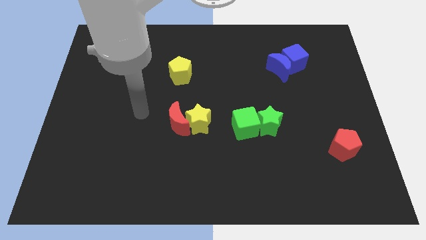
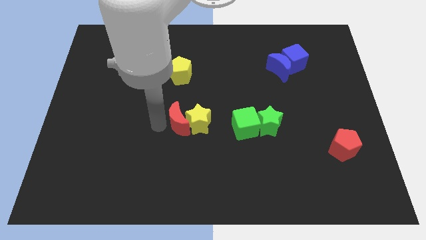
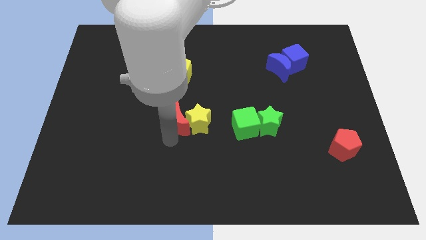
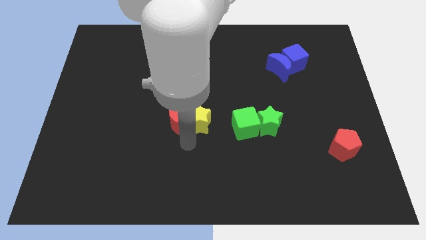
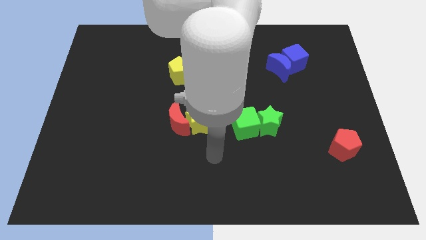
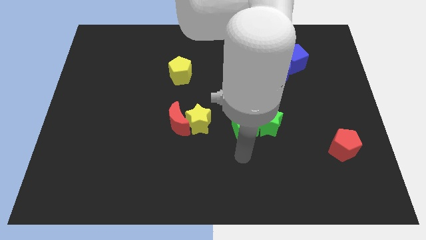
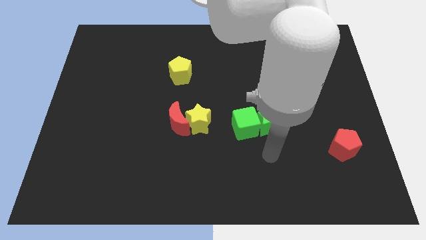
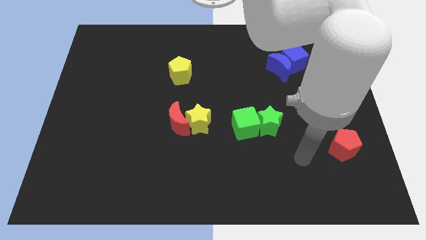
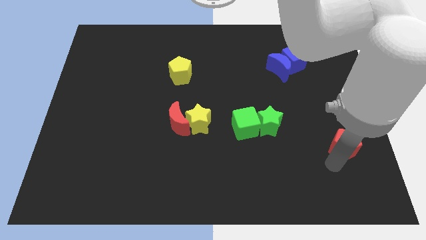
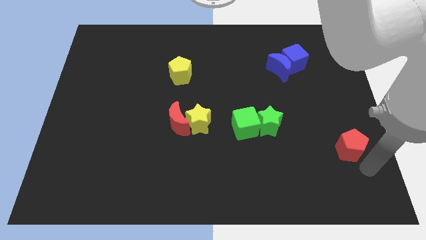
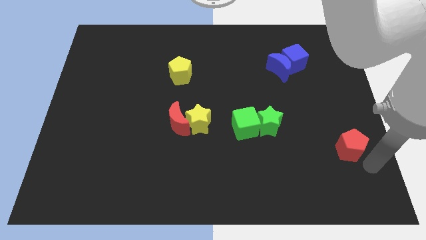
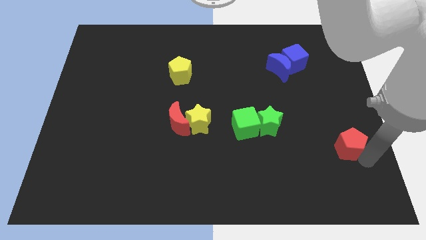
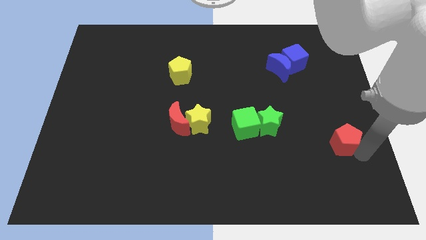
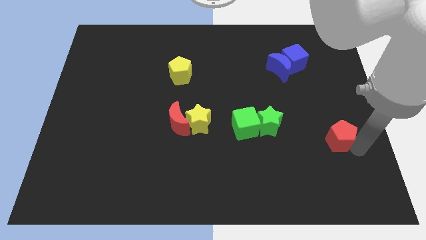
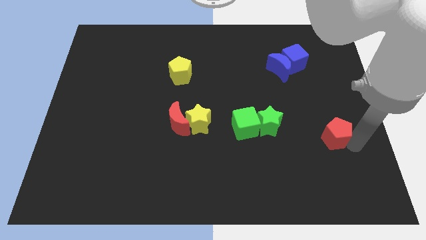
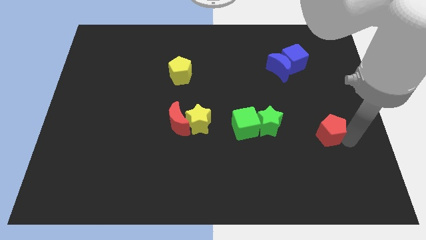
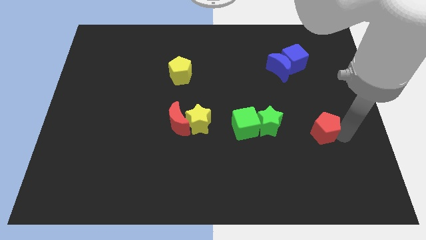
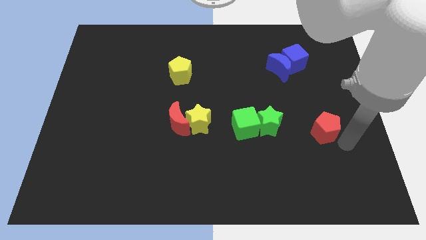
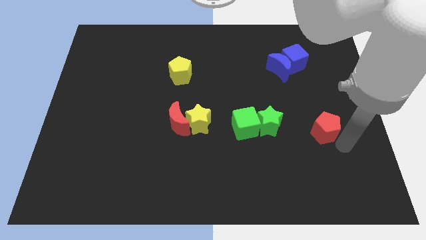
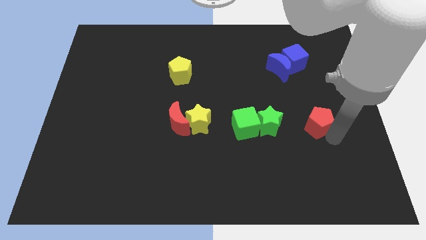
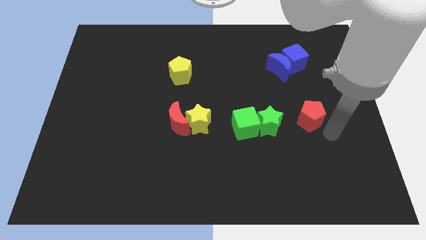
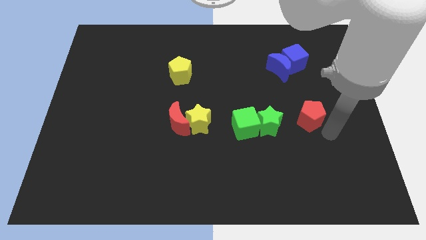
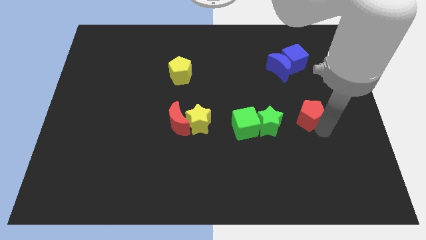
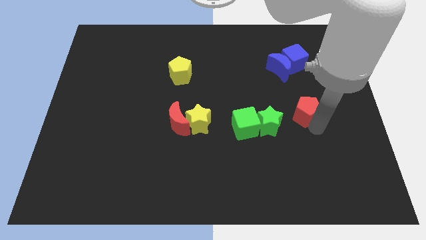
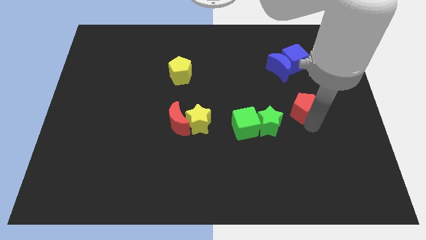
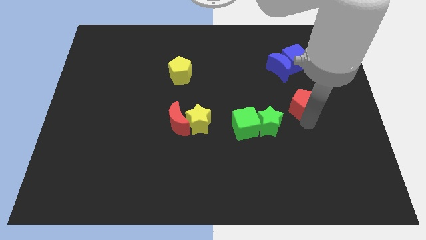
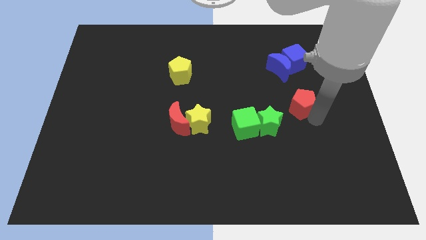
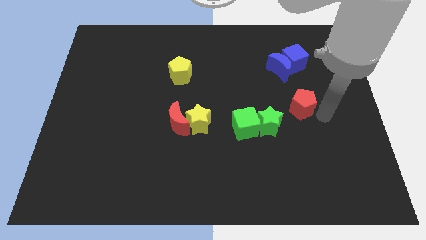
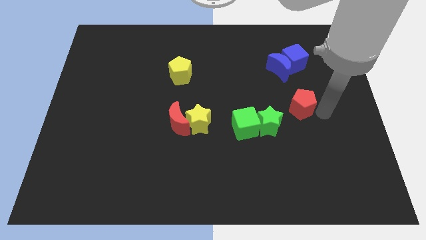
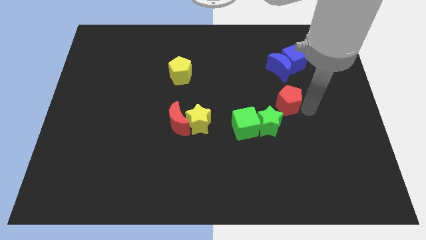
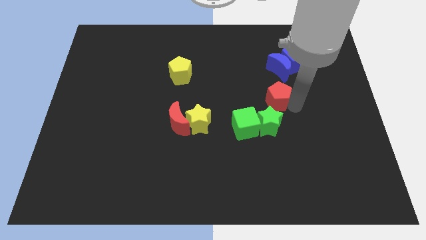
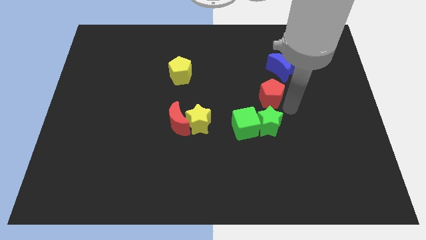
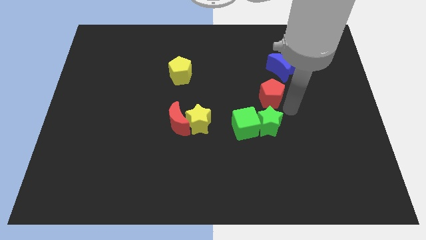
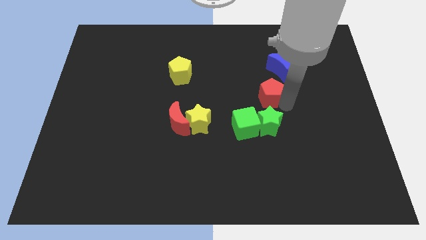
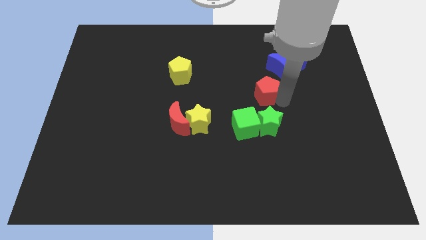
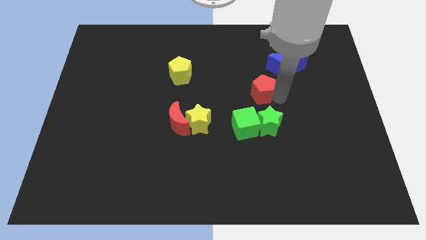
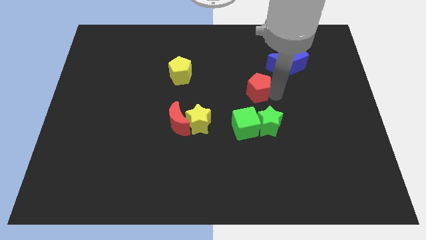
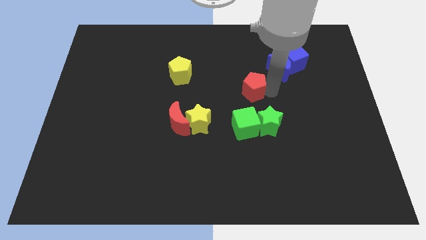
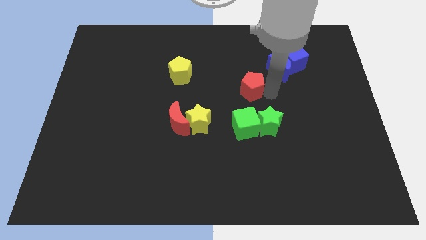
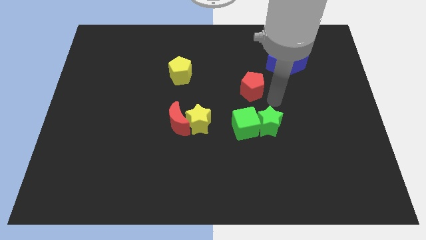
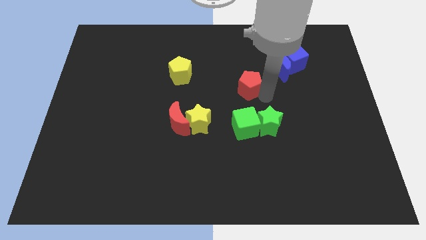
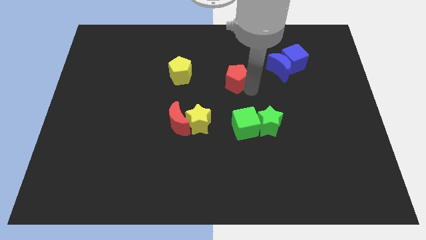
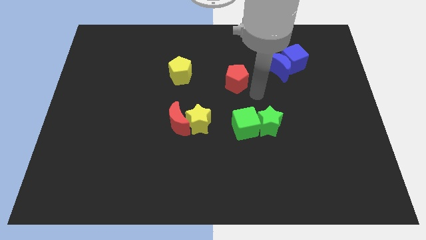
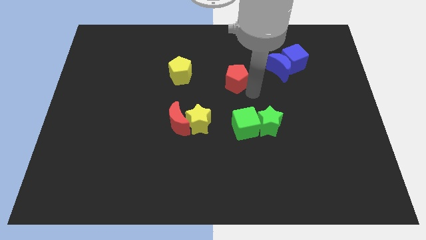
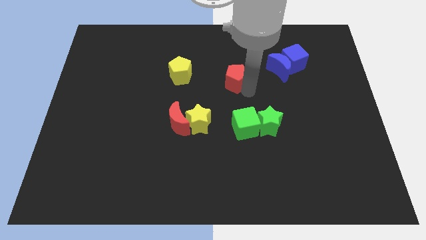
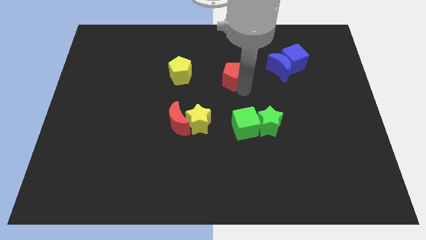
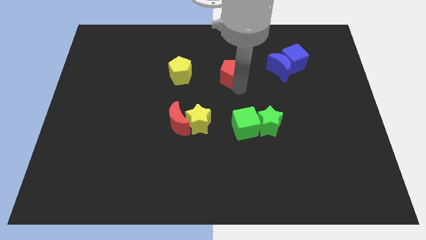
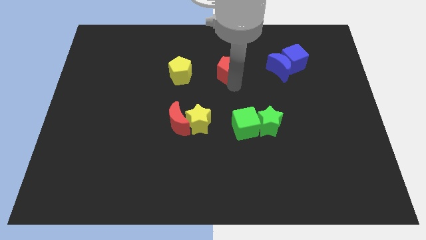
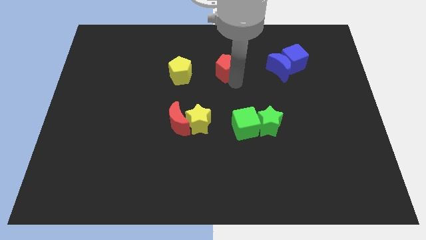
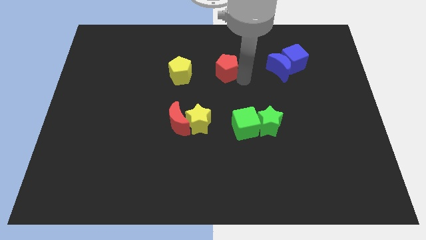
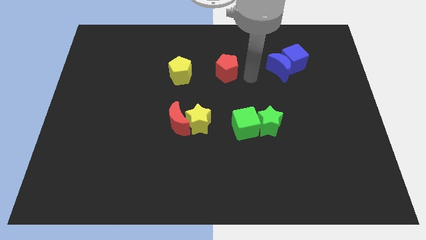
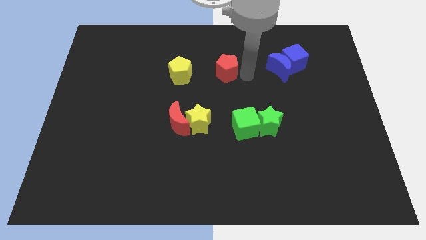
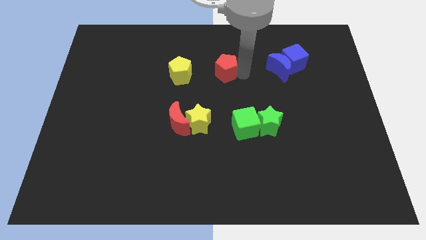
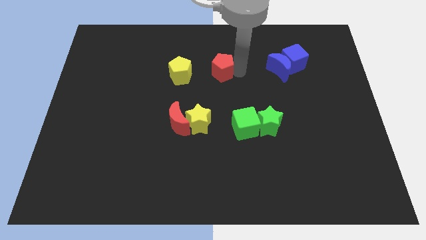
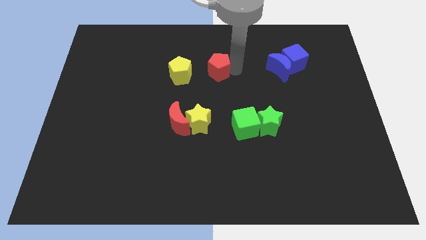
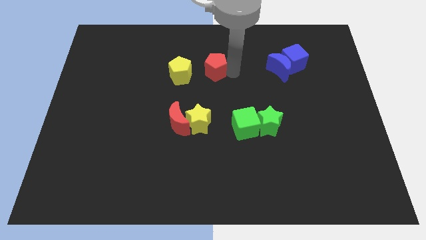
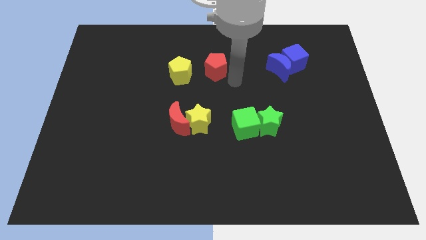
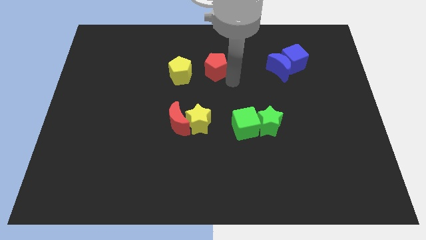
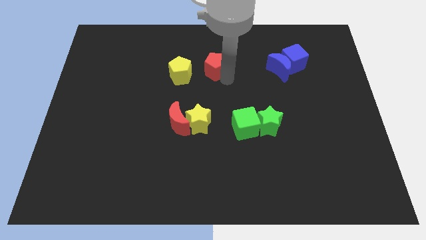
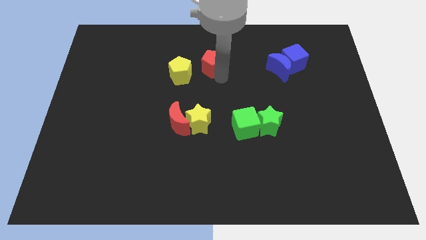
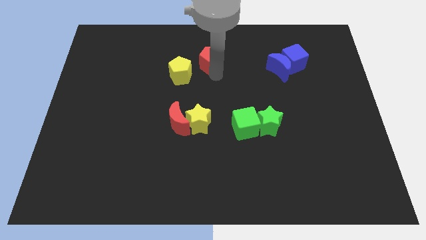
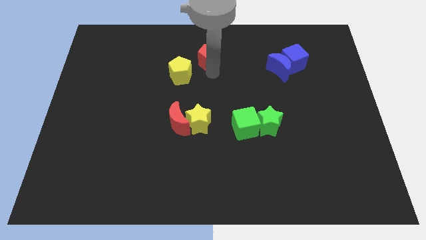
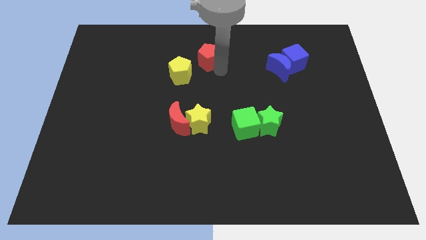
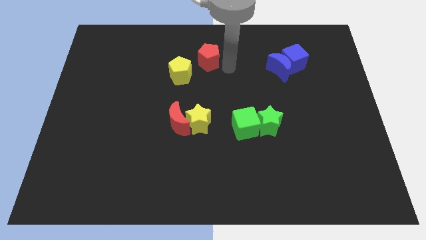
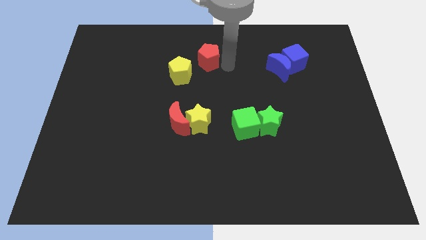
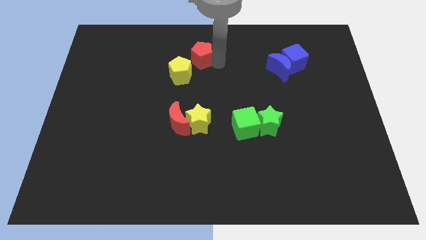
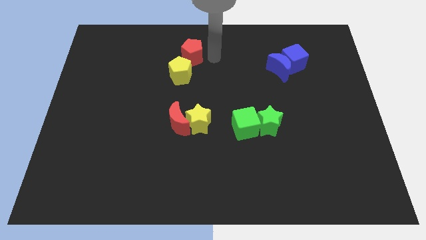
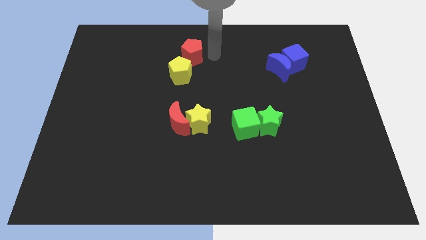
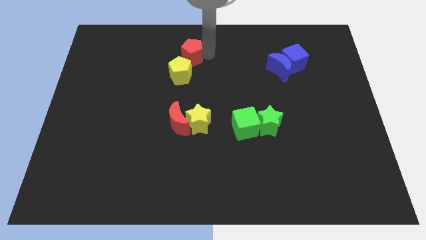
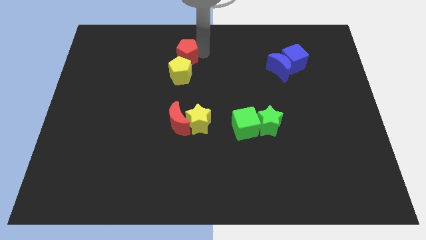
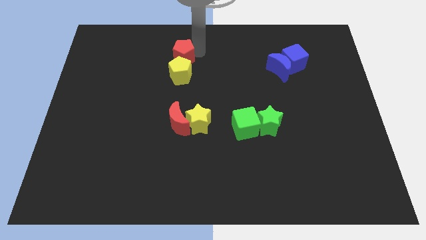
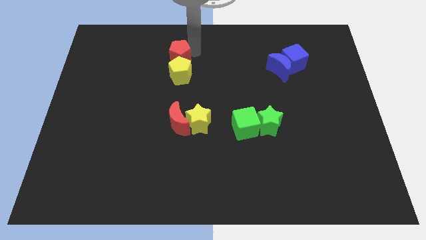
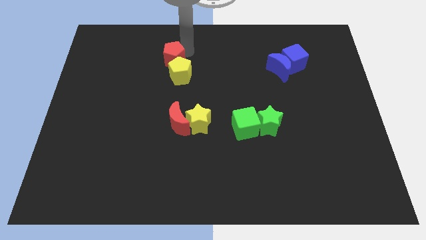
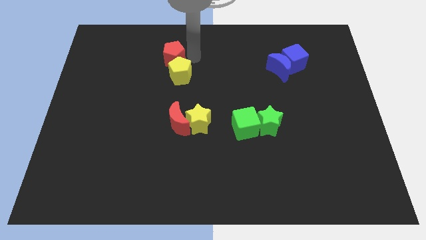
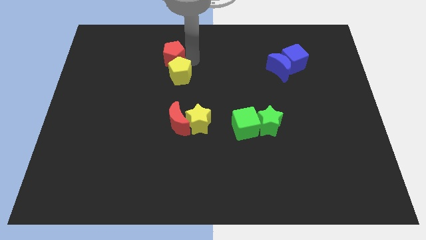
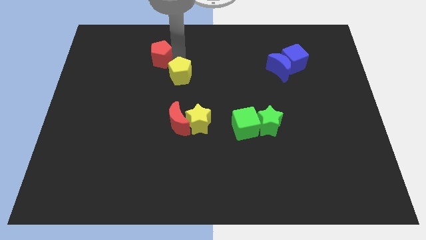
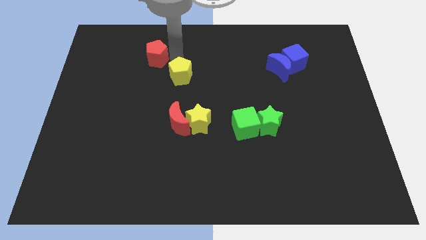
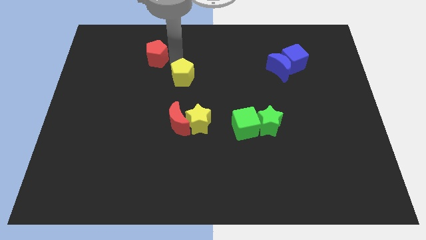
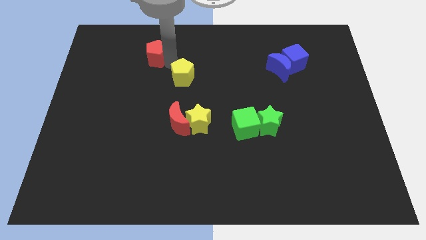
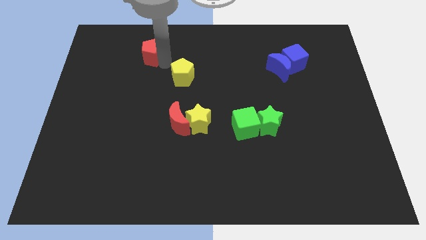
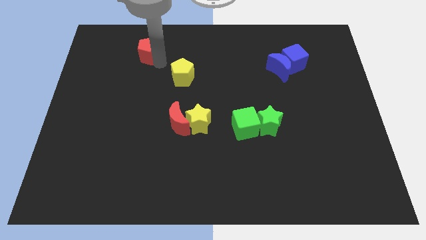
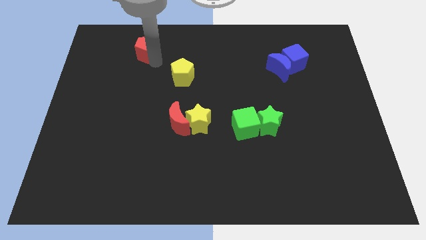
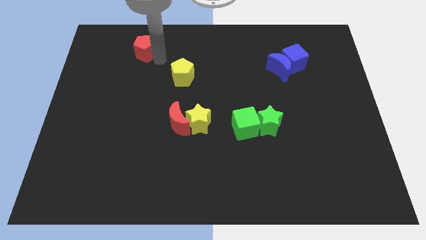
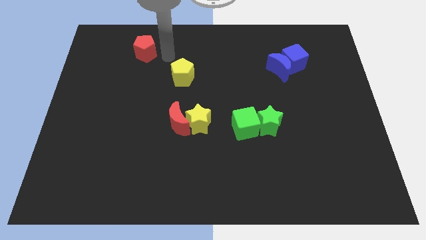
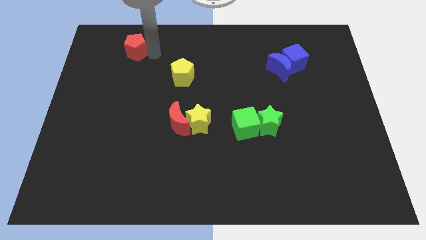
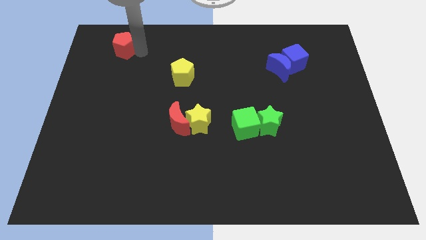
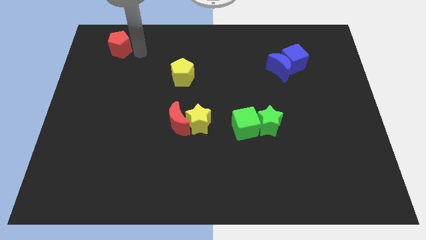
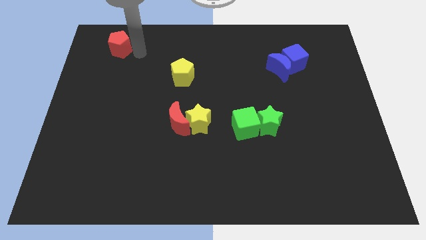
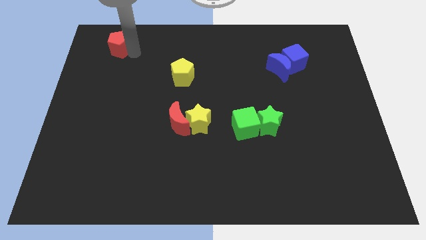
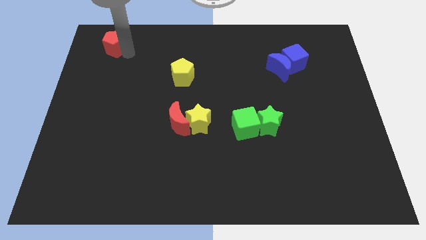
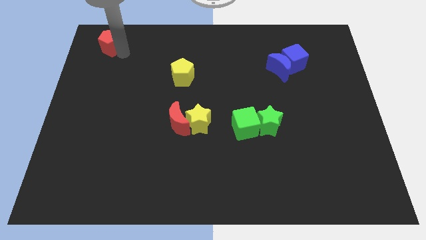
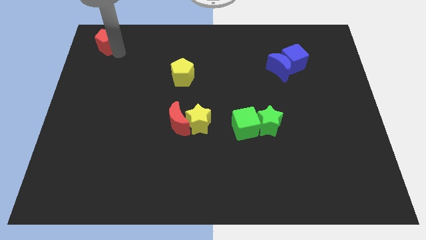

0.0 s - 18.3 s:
put the red pentagon to the top left of the board
